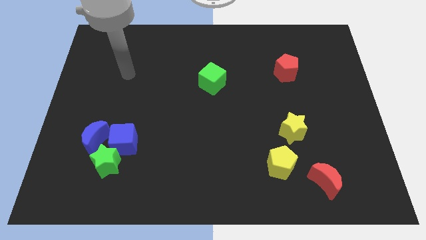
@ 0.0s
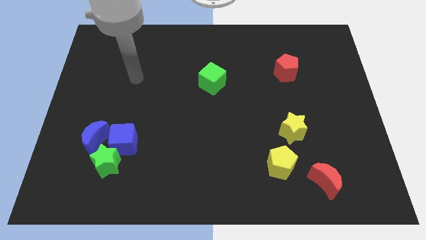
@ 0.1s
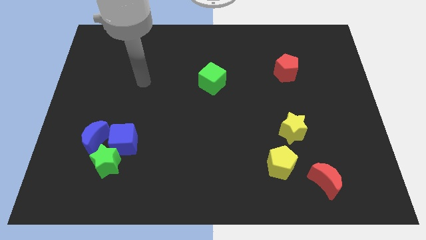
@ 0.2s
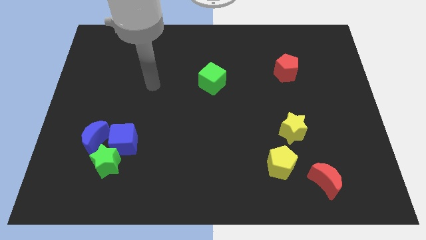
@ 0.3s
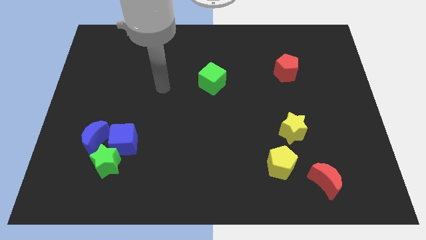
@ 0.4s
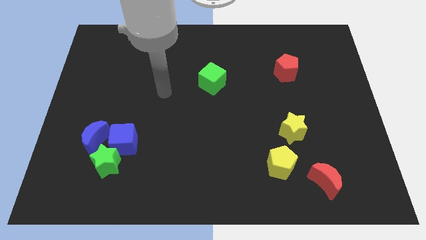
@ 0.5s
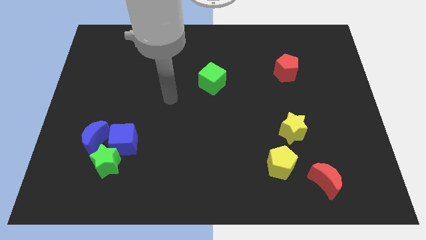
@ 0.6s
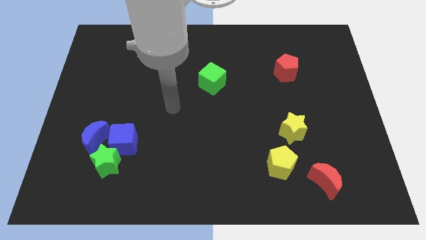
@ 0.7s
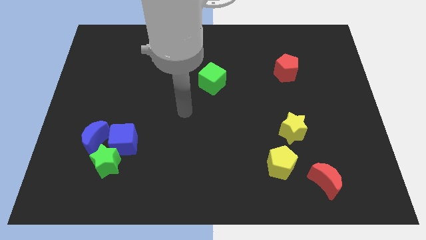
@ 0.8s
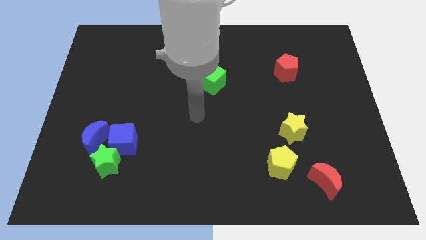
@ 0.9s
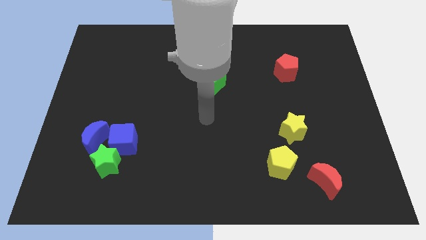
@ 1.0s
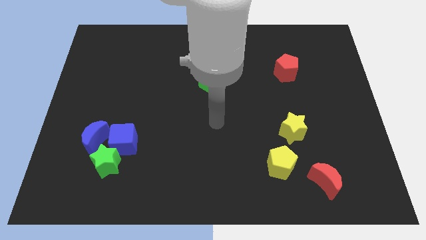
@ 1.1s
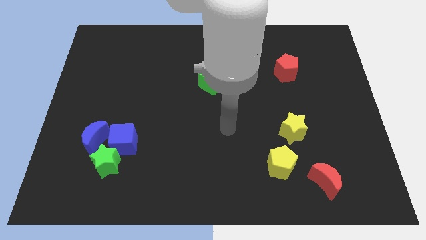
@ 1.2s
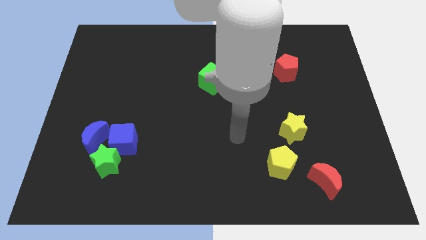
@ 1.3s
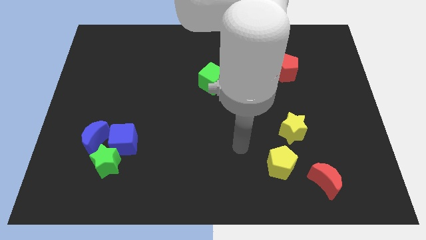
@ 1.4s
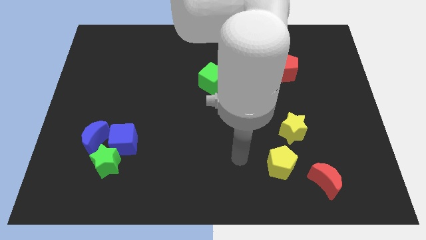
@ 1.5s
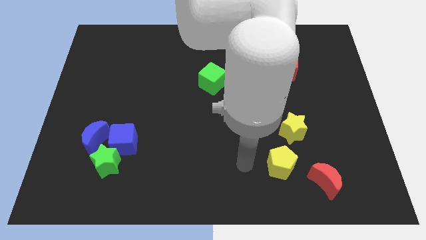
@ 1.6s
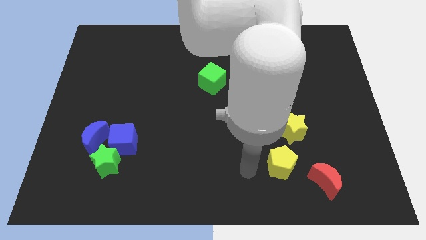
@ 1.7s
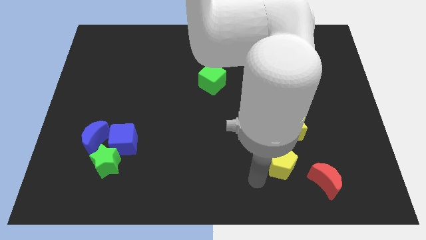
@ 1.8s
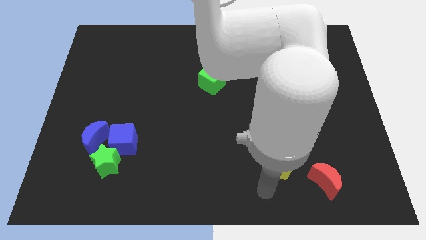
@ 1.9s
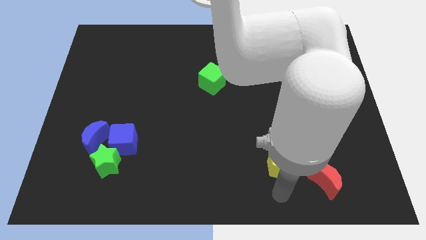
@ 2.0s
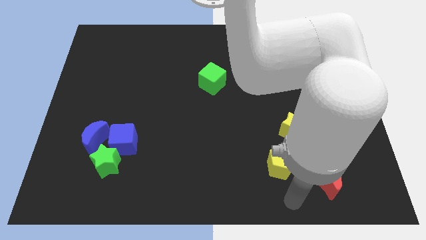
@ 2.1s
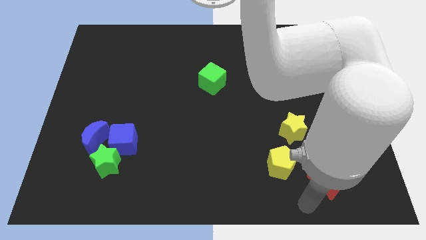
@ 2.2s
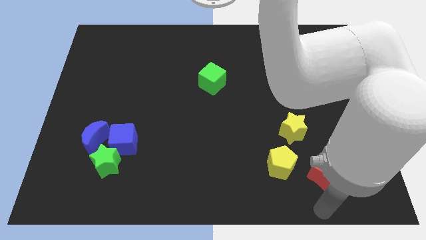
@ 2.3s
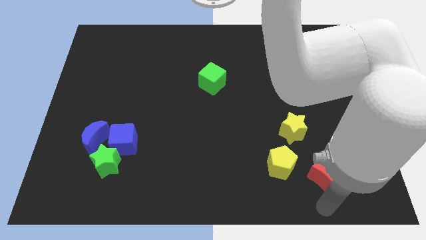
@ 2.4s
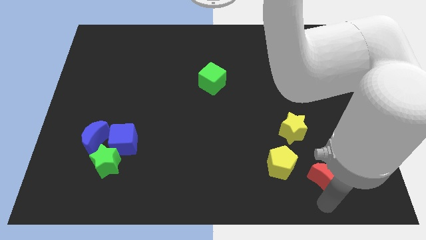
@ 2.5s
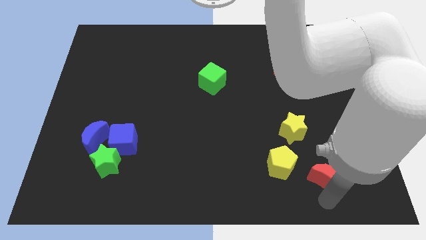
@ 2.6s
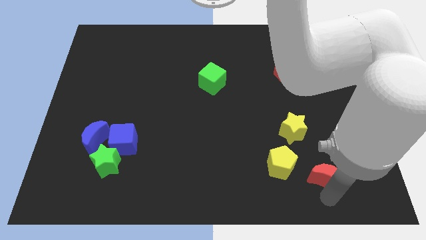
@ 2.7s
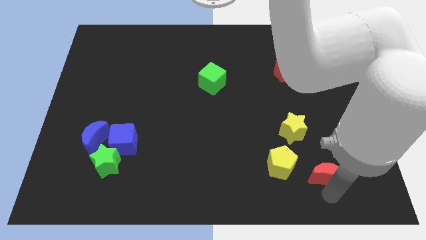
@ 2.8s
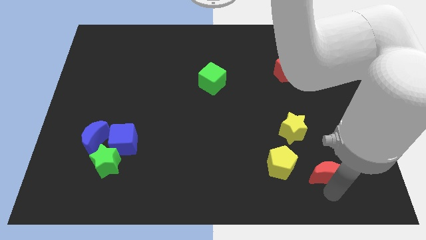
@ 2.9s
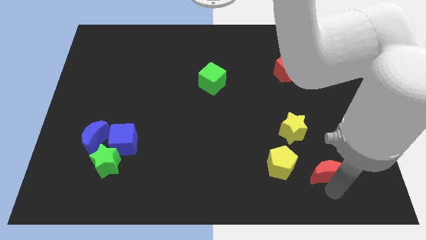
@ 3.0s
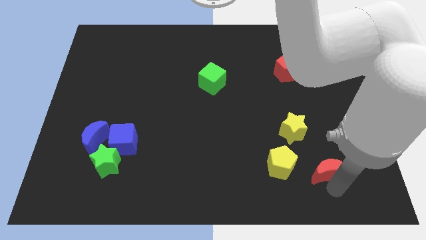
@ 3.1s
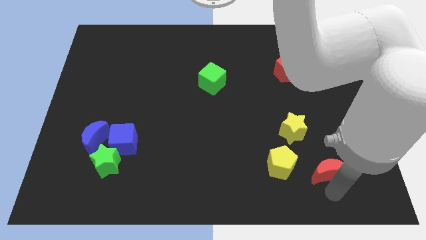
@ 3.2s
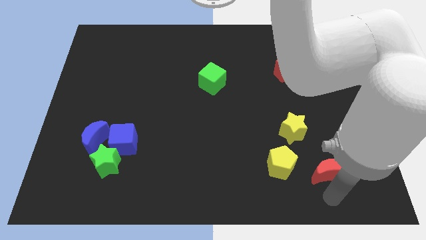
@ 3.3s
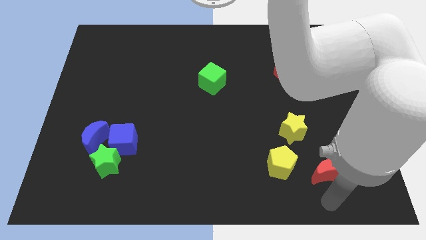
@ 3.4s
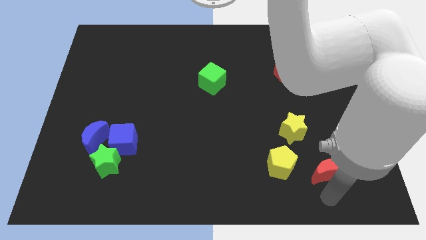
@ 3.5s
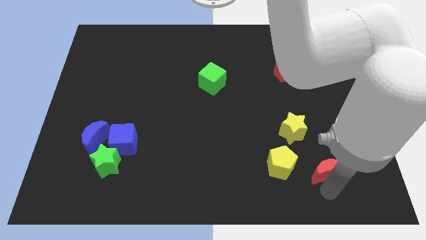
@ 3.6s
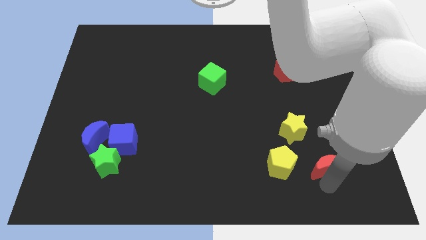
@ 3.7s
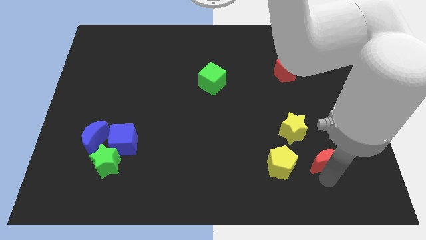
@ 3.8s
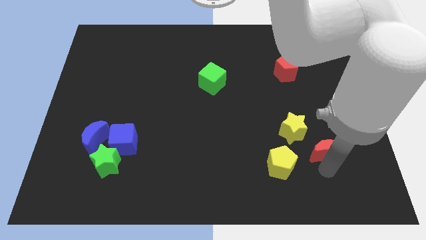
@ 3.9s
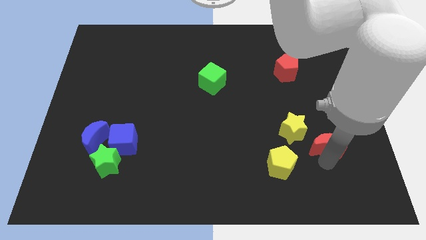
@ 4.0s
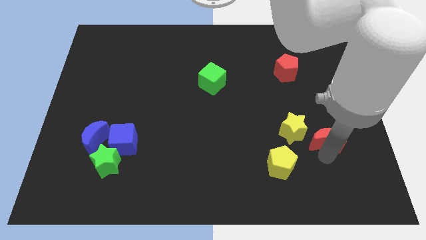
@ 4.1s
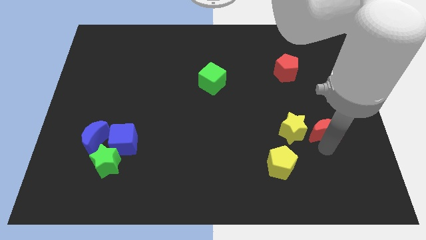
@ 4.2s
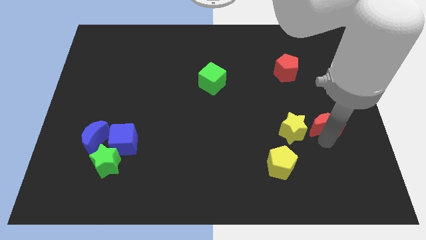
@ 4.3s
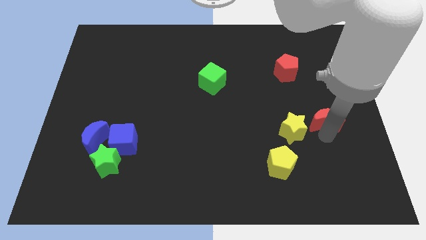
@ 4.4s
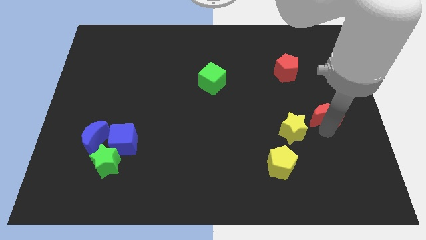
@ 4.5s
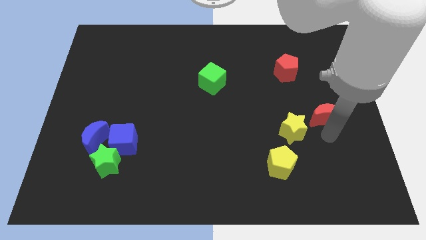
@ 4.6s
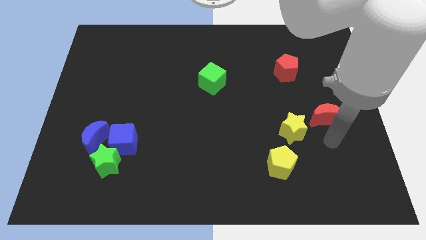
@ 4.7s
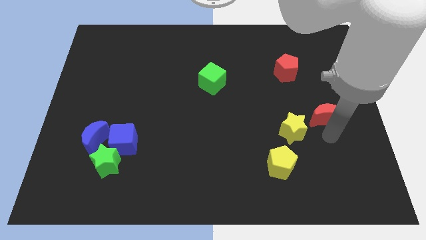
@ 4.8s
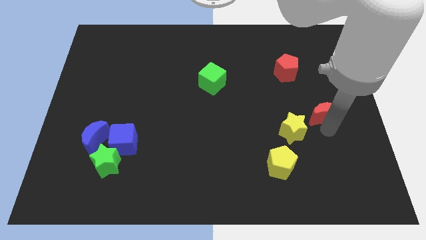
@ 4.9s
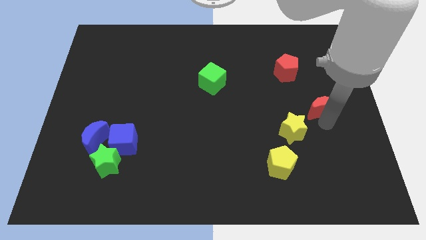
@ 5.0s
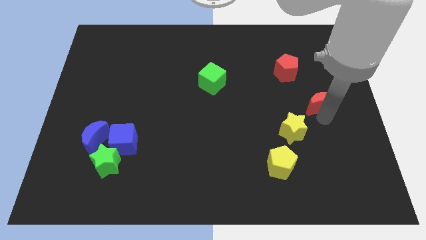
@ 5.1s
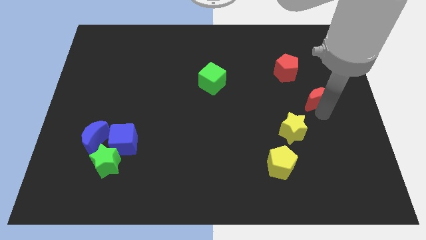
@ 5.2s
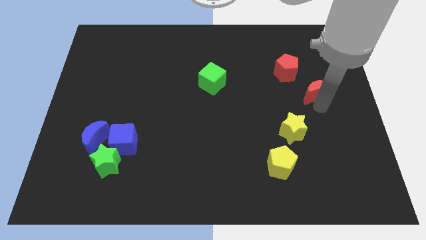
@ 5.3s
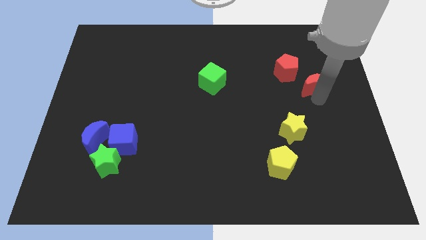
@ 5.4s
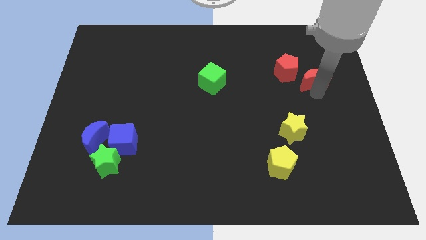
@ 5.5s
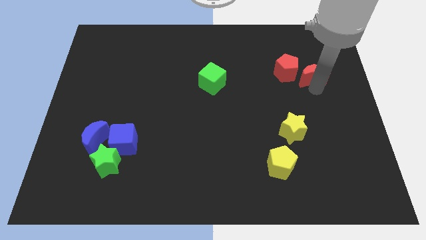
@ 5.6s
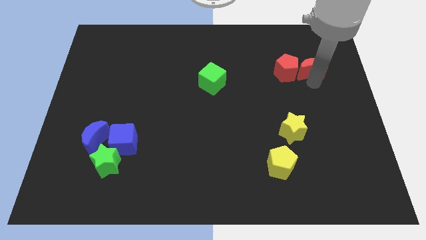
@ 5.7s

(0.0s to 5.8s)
move the red moon diagonally up and to the right of the red pentagon

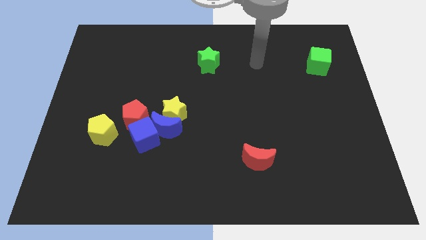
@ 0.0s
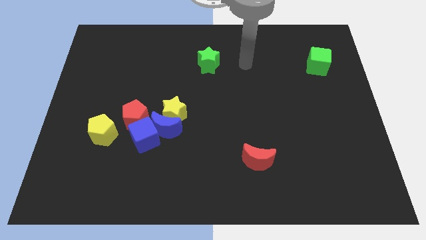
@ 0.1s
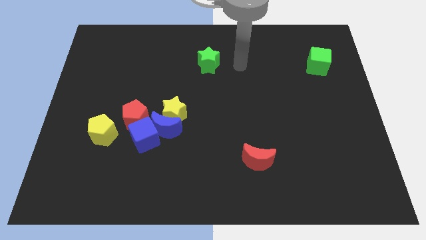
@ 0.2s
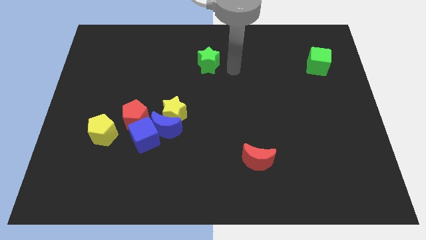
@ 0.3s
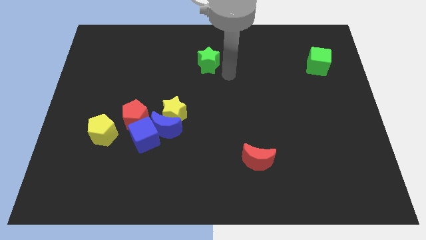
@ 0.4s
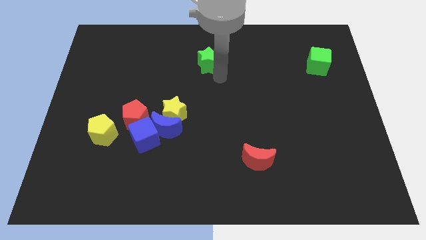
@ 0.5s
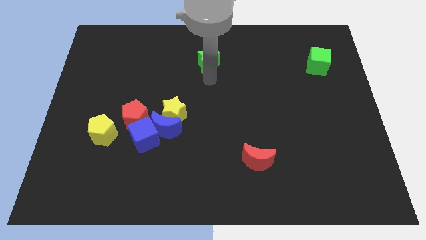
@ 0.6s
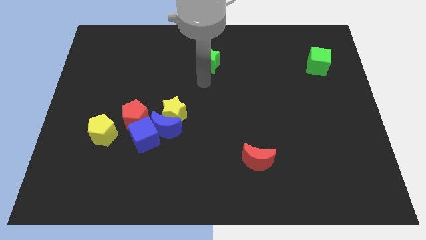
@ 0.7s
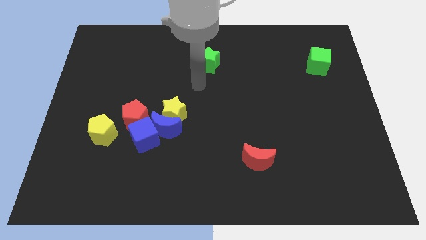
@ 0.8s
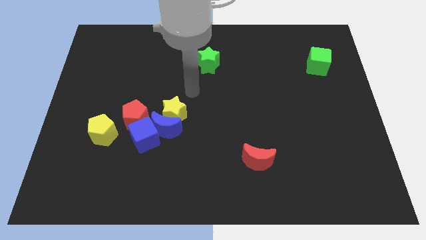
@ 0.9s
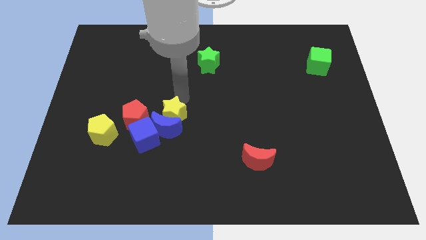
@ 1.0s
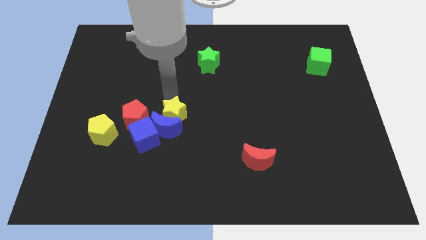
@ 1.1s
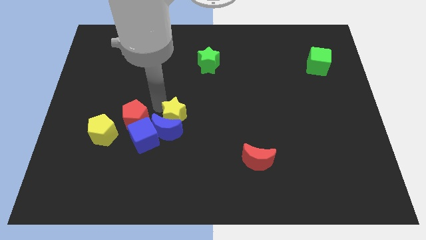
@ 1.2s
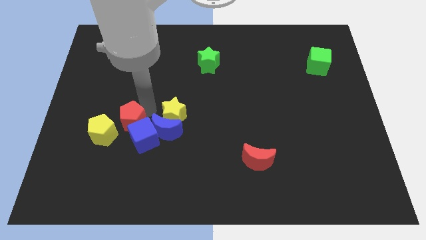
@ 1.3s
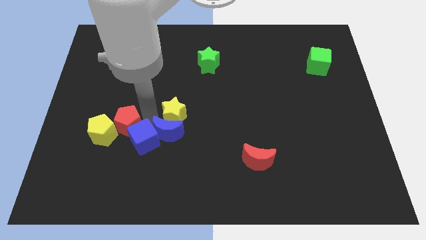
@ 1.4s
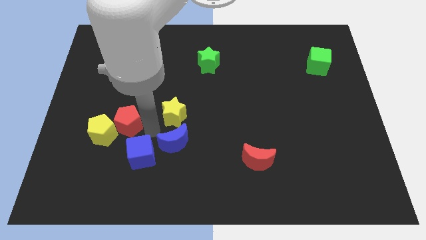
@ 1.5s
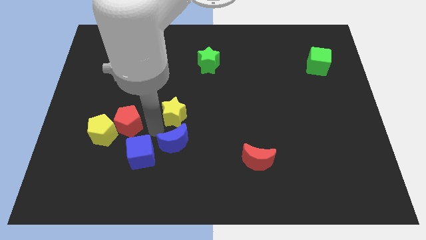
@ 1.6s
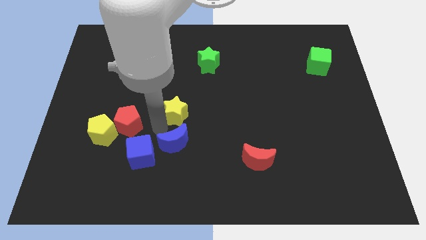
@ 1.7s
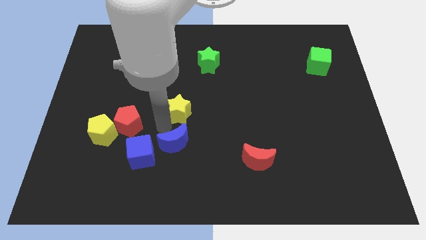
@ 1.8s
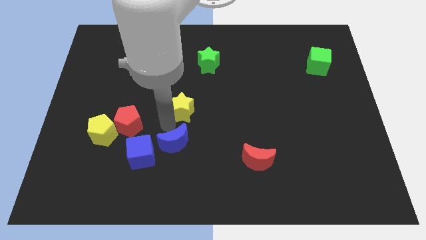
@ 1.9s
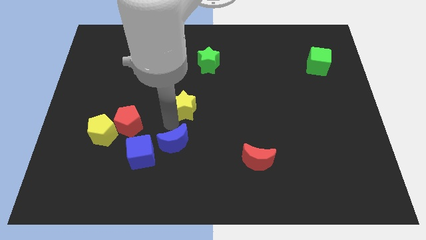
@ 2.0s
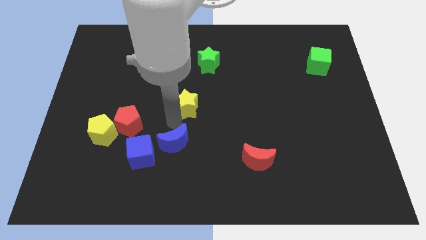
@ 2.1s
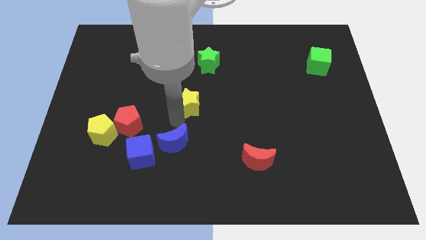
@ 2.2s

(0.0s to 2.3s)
put the yellow star to the bottom of the green star
